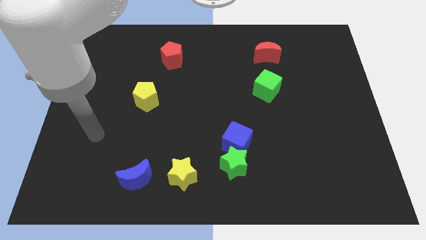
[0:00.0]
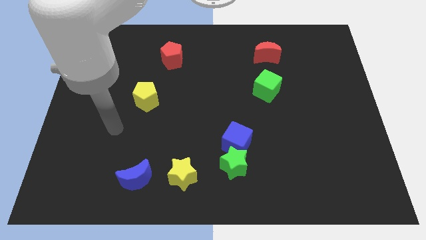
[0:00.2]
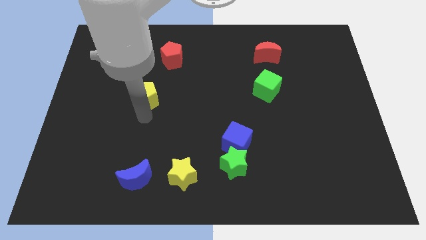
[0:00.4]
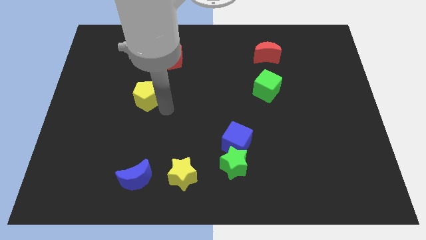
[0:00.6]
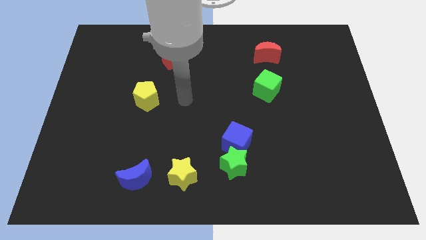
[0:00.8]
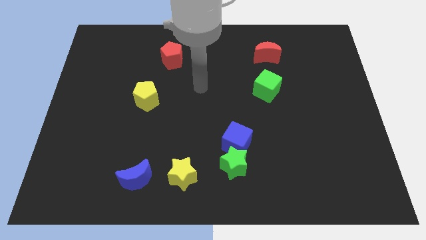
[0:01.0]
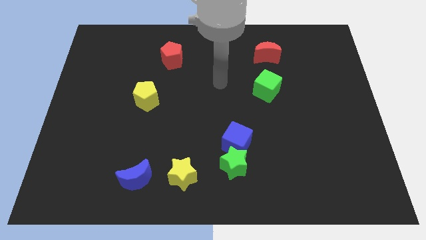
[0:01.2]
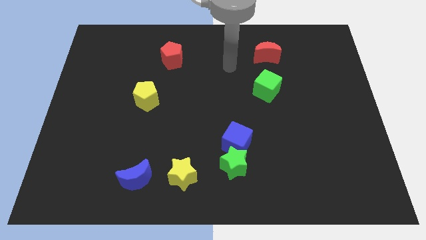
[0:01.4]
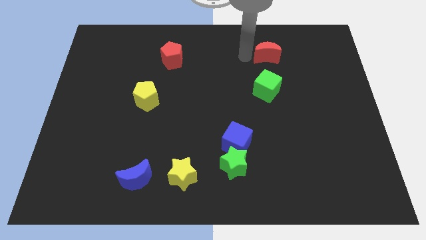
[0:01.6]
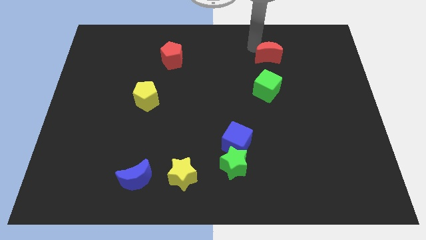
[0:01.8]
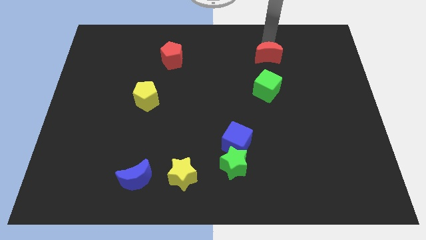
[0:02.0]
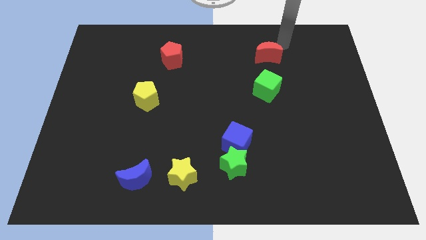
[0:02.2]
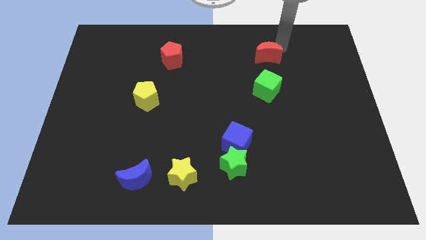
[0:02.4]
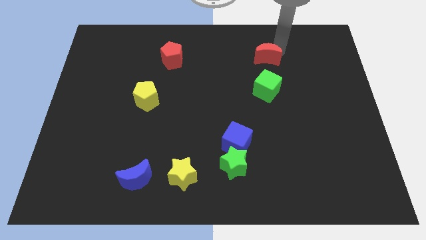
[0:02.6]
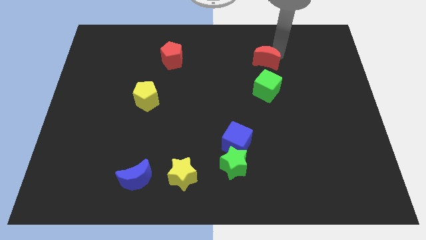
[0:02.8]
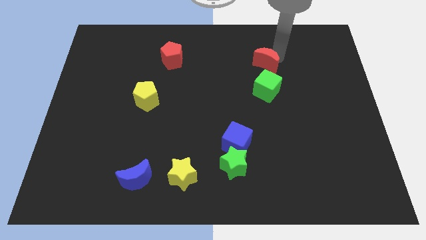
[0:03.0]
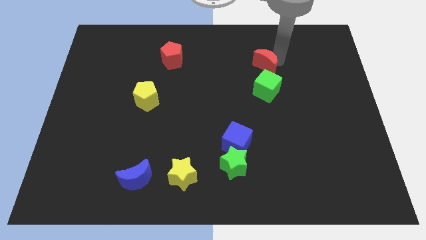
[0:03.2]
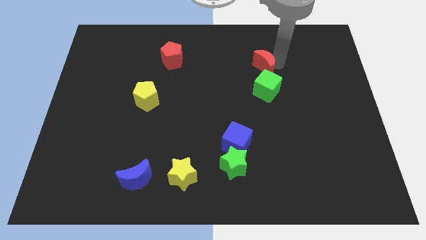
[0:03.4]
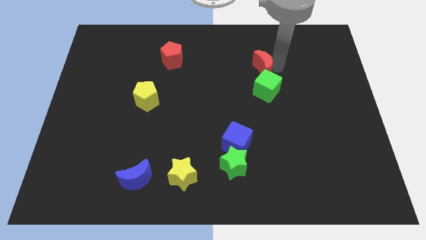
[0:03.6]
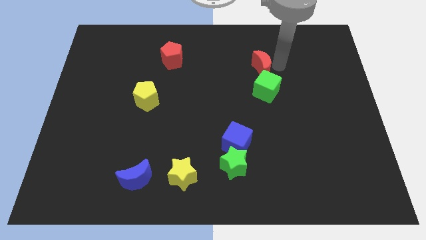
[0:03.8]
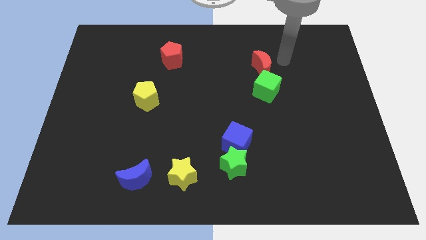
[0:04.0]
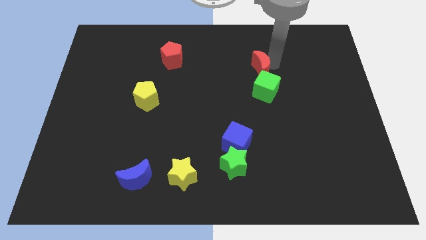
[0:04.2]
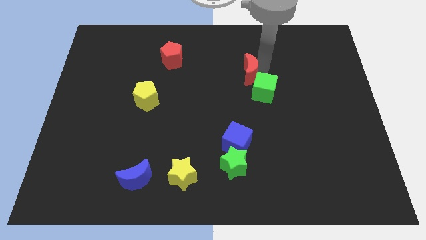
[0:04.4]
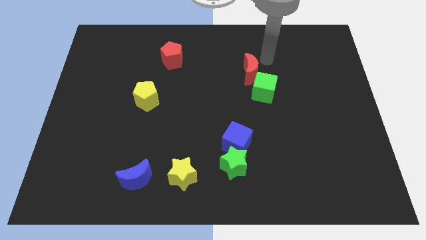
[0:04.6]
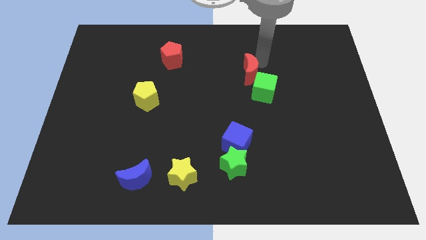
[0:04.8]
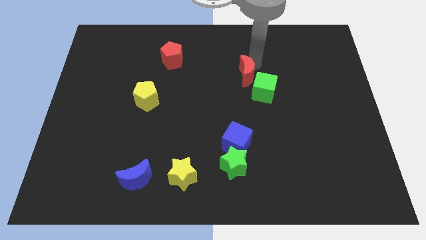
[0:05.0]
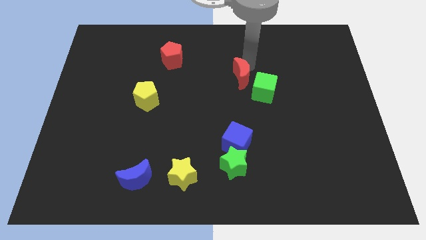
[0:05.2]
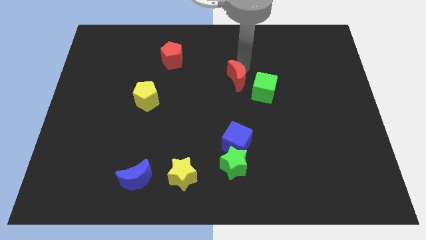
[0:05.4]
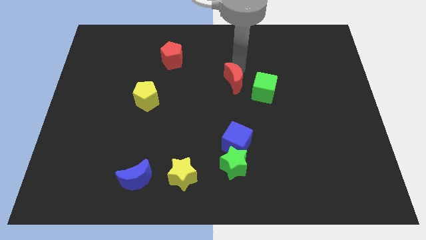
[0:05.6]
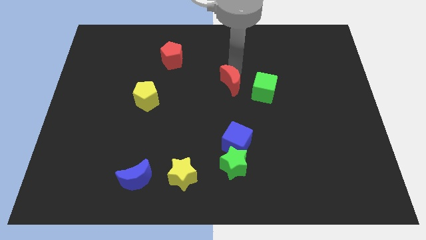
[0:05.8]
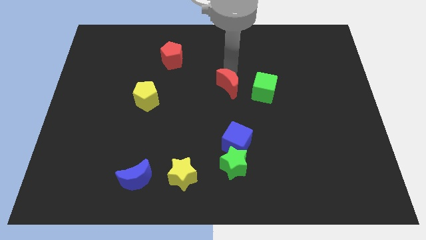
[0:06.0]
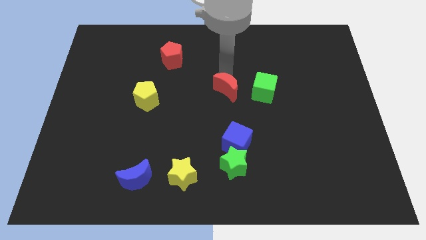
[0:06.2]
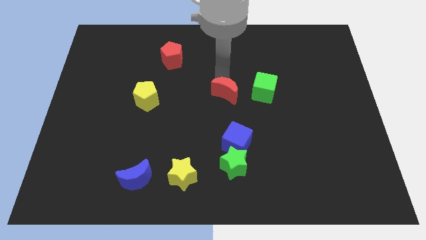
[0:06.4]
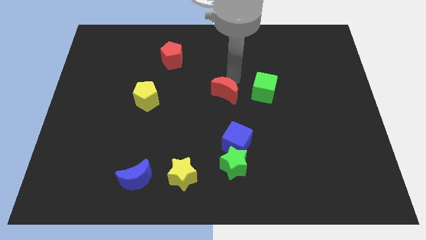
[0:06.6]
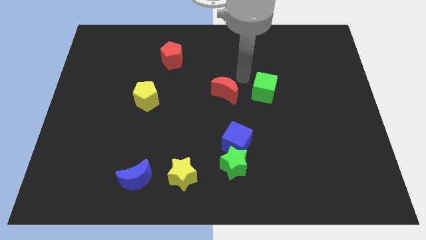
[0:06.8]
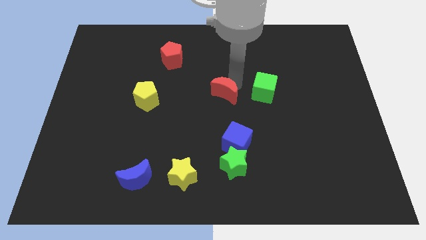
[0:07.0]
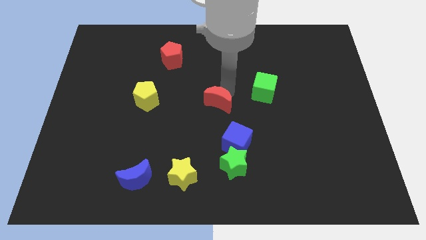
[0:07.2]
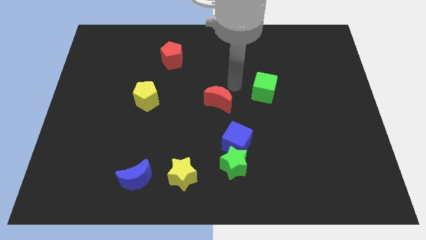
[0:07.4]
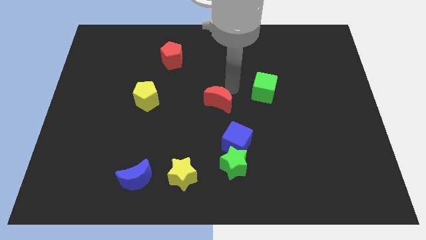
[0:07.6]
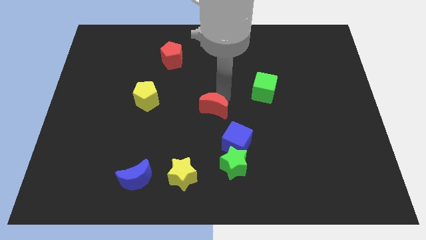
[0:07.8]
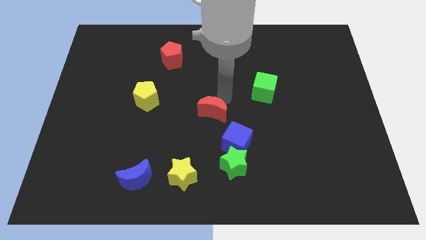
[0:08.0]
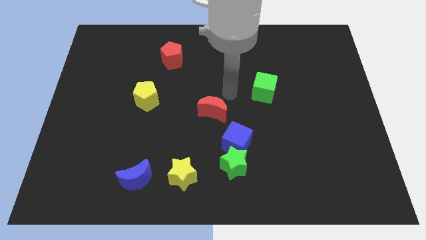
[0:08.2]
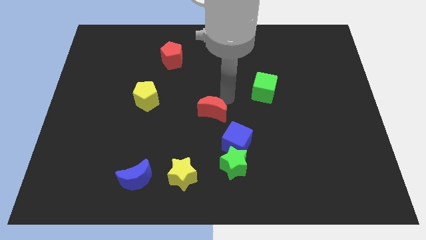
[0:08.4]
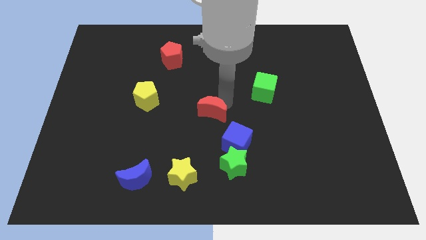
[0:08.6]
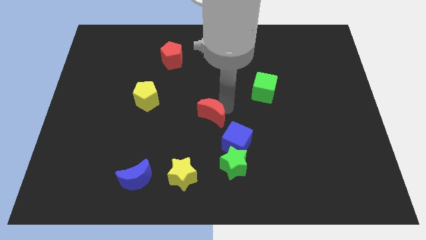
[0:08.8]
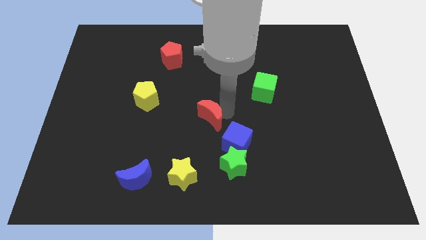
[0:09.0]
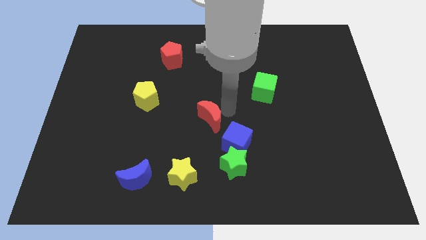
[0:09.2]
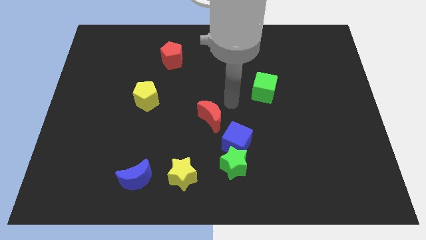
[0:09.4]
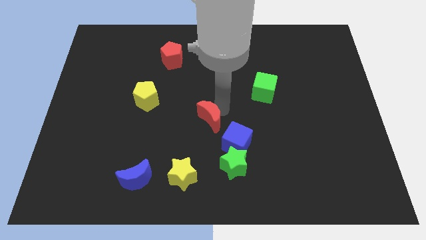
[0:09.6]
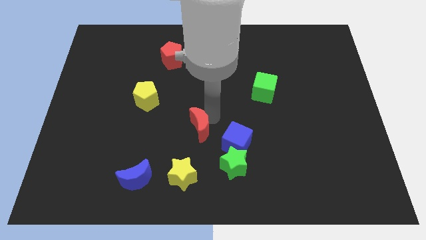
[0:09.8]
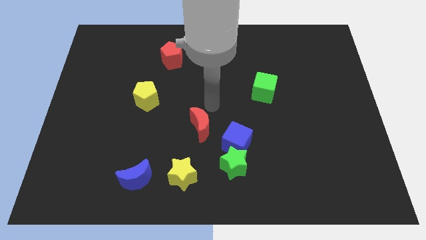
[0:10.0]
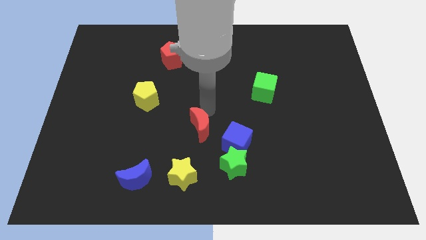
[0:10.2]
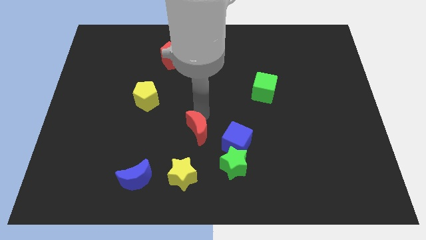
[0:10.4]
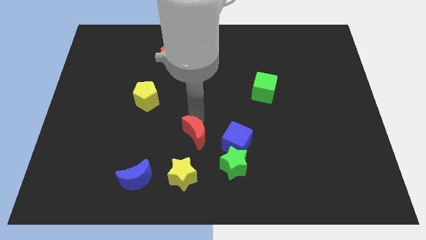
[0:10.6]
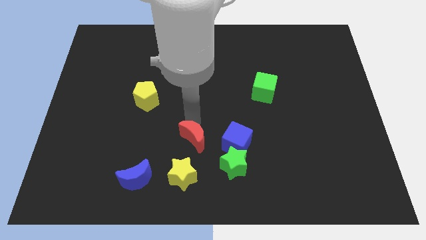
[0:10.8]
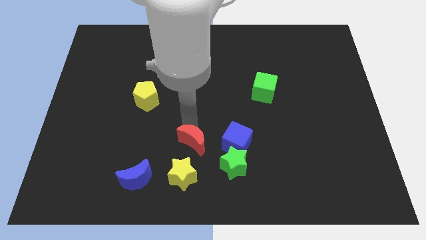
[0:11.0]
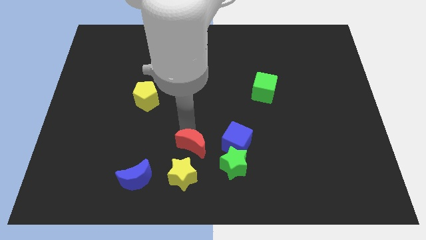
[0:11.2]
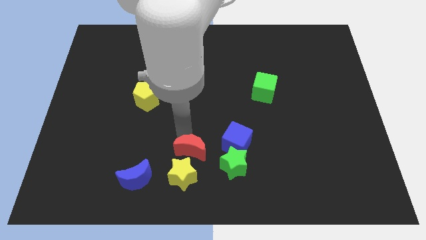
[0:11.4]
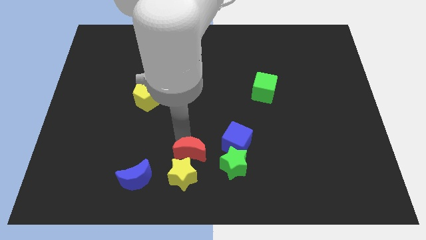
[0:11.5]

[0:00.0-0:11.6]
slide the red moon towards the yellow star

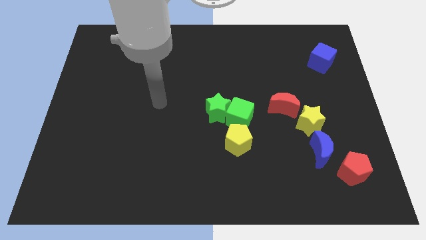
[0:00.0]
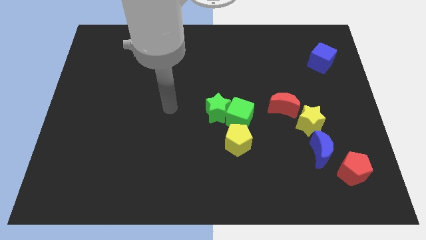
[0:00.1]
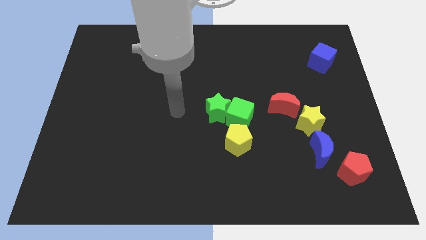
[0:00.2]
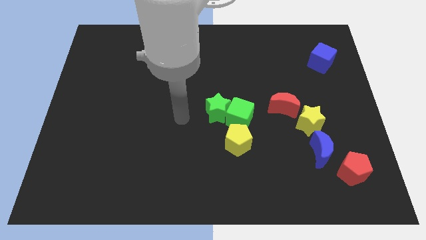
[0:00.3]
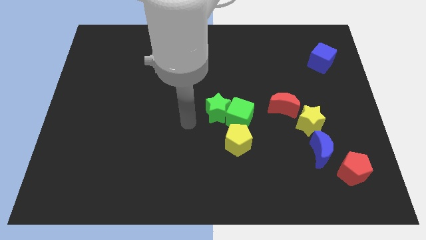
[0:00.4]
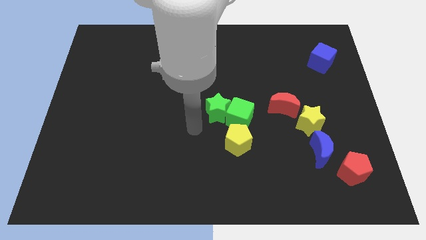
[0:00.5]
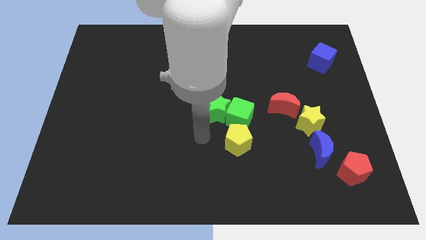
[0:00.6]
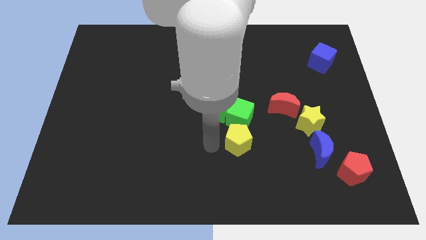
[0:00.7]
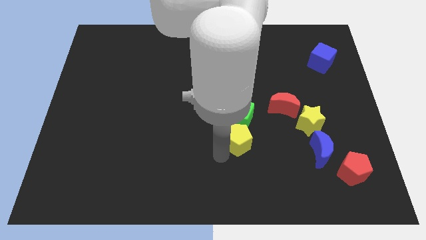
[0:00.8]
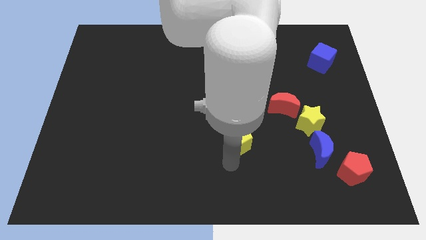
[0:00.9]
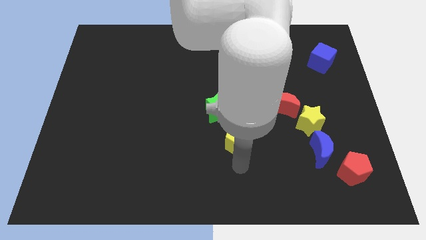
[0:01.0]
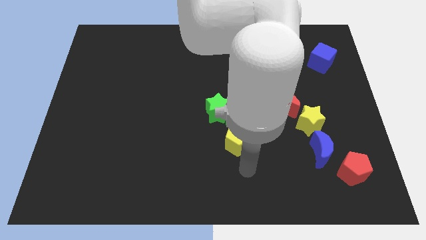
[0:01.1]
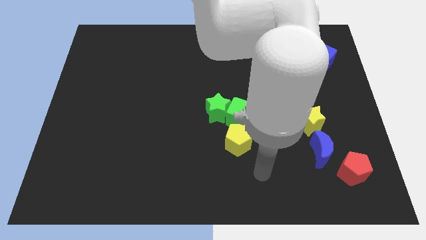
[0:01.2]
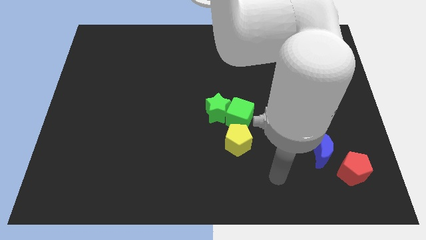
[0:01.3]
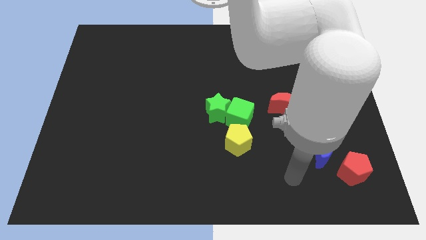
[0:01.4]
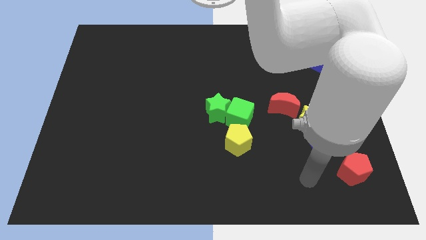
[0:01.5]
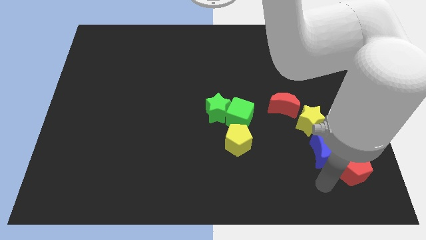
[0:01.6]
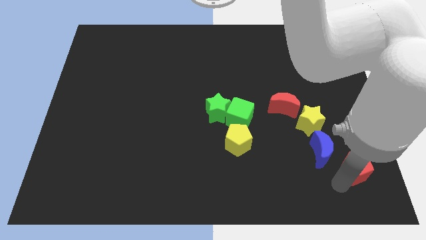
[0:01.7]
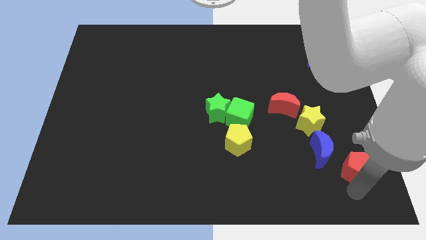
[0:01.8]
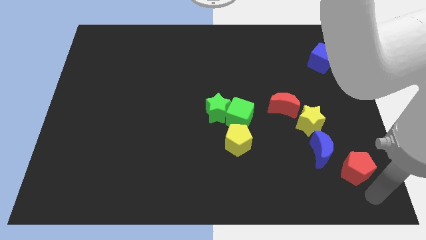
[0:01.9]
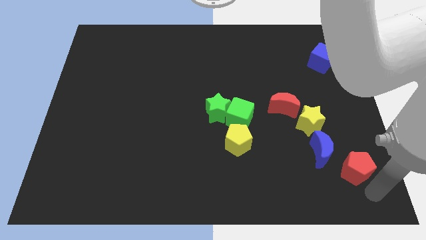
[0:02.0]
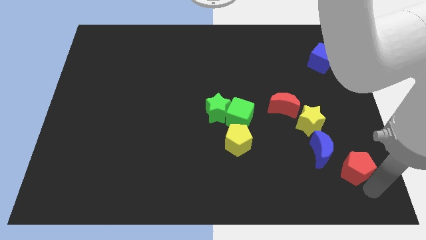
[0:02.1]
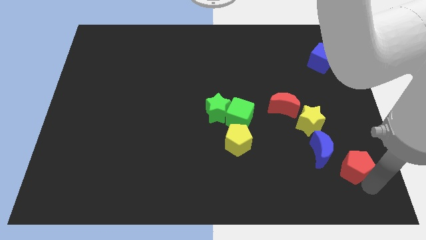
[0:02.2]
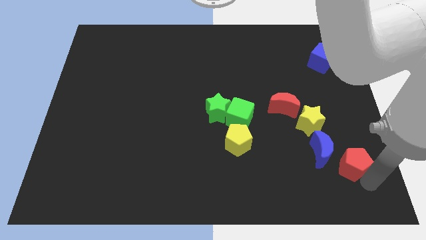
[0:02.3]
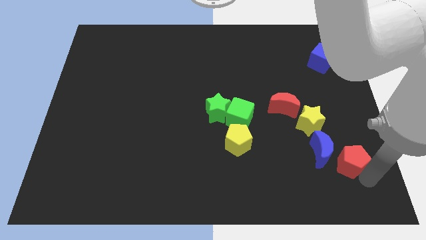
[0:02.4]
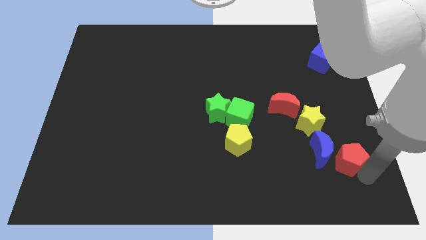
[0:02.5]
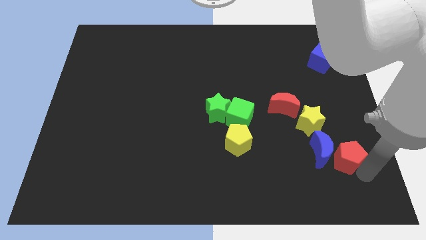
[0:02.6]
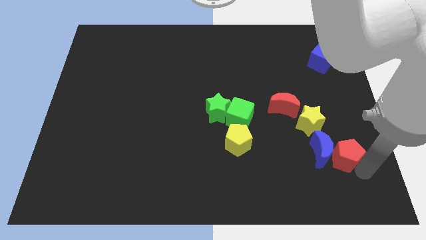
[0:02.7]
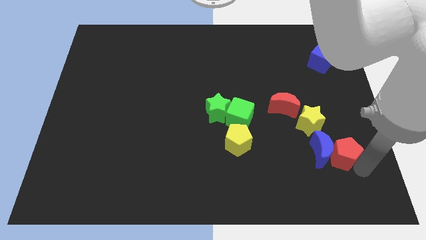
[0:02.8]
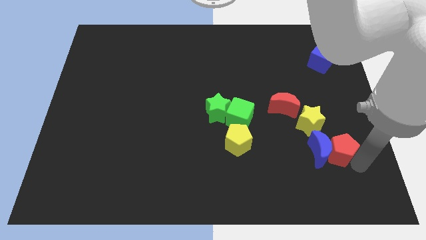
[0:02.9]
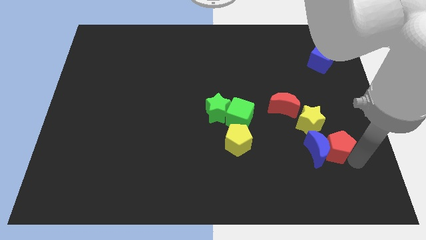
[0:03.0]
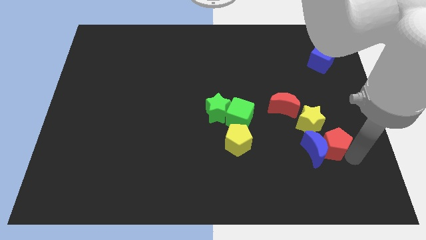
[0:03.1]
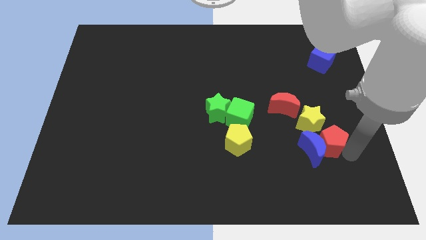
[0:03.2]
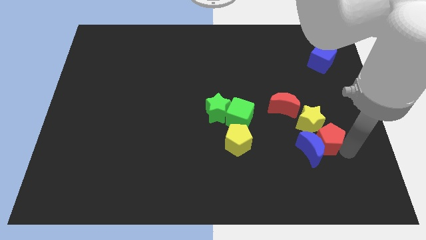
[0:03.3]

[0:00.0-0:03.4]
move the red pentagon next to the yellow star
